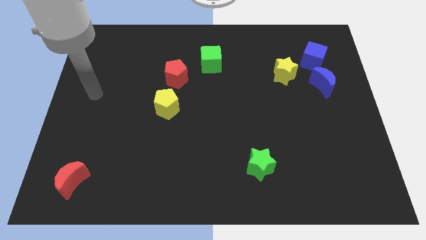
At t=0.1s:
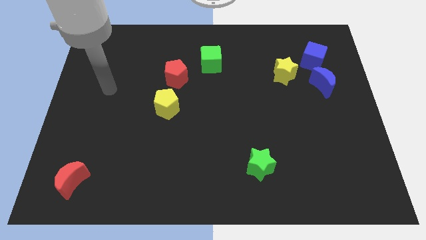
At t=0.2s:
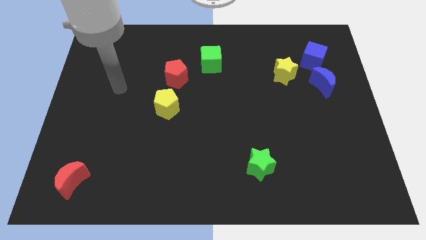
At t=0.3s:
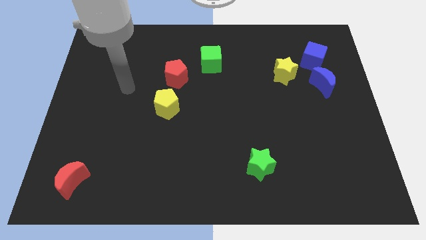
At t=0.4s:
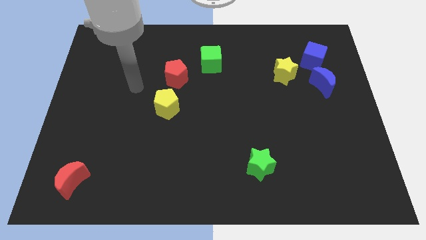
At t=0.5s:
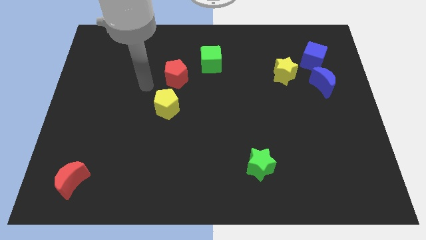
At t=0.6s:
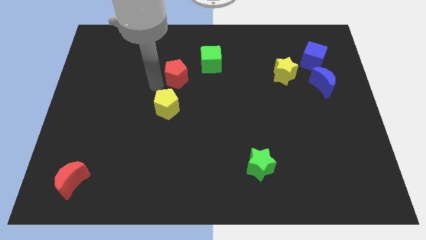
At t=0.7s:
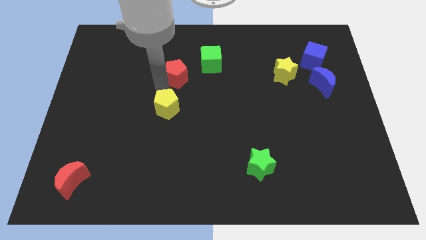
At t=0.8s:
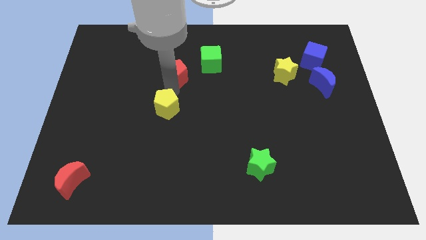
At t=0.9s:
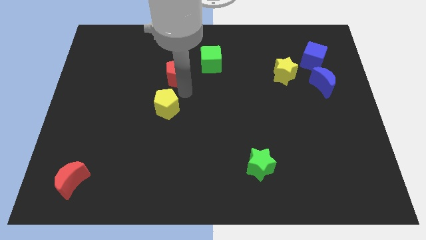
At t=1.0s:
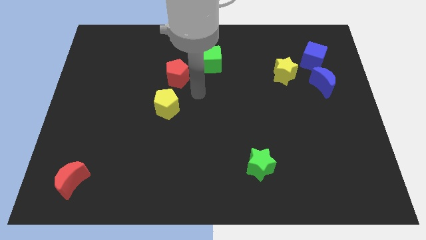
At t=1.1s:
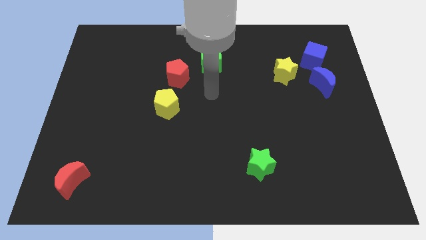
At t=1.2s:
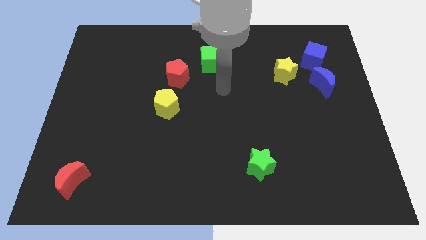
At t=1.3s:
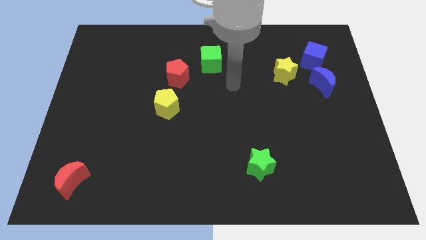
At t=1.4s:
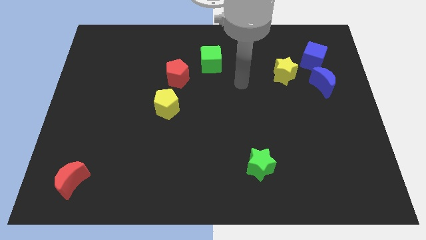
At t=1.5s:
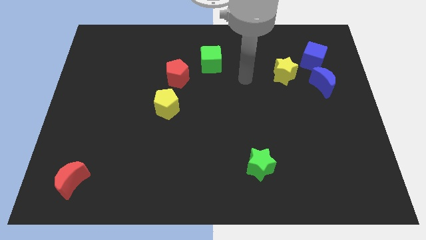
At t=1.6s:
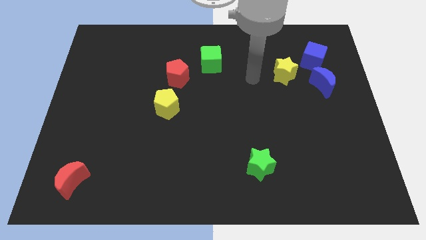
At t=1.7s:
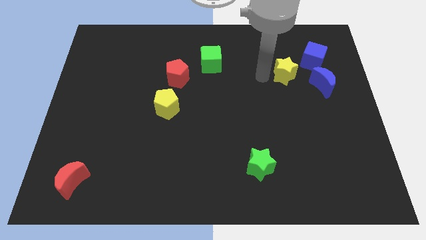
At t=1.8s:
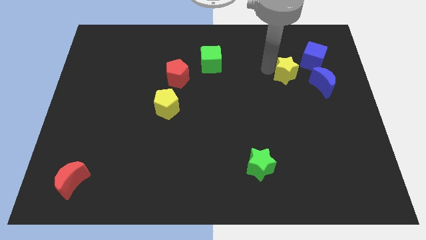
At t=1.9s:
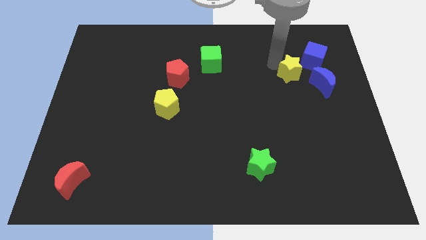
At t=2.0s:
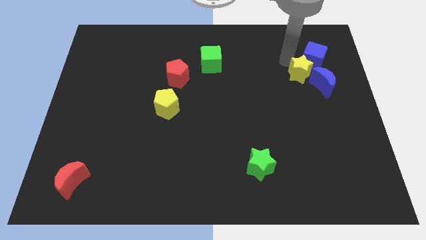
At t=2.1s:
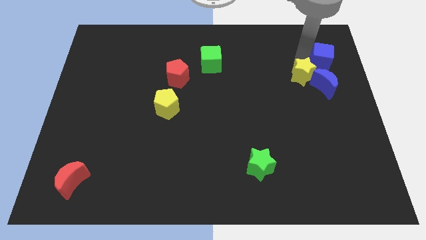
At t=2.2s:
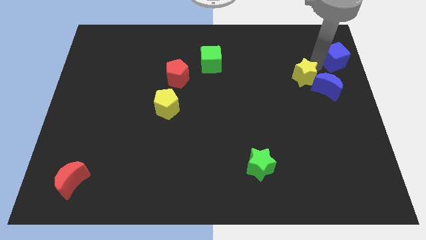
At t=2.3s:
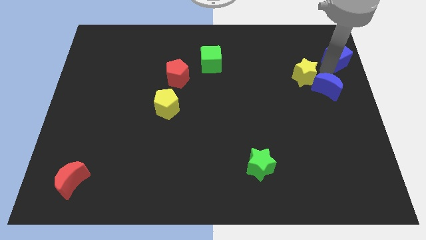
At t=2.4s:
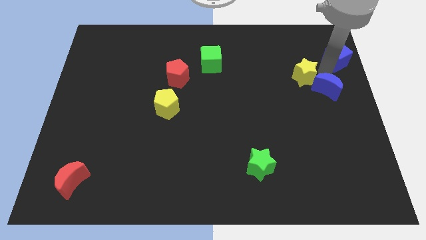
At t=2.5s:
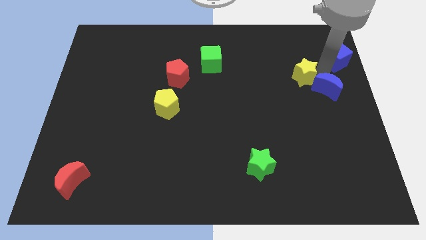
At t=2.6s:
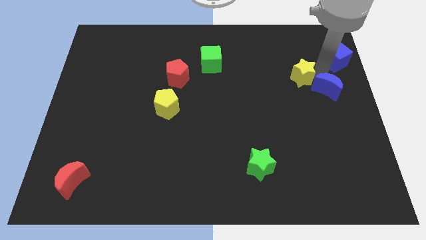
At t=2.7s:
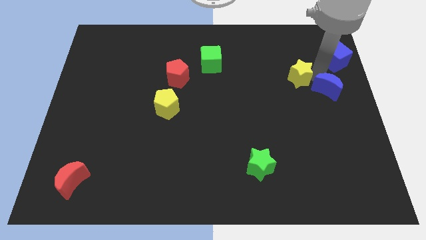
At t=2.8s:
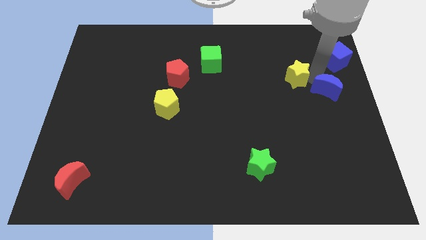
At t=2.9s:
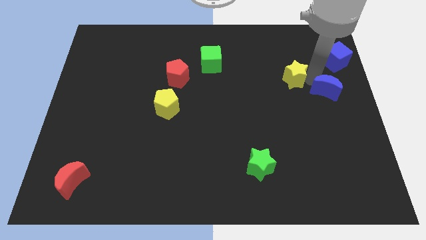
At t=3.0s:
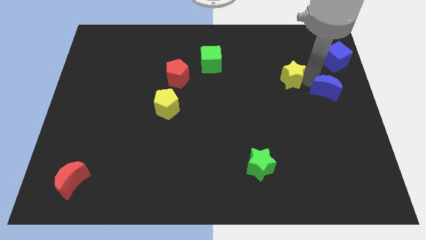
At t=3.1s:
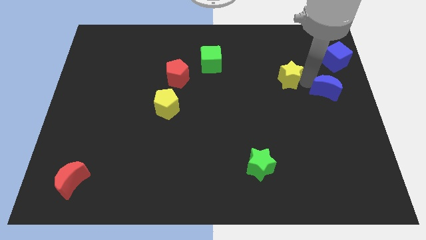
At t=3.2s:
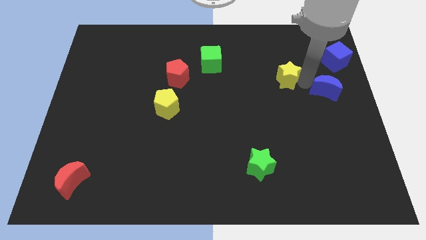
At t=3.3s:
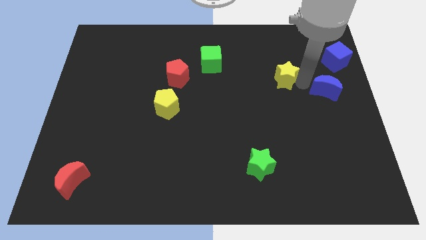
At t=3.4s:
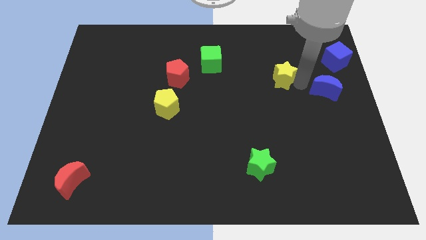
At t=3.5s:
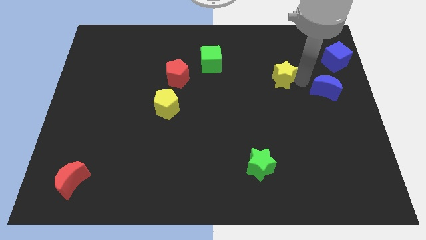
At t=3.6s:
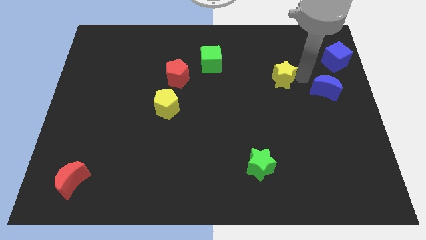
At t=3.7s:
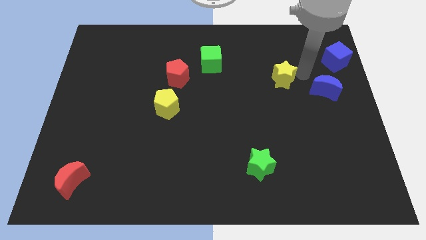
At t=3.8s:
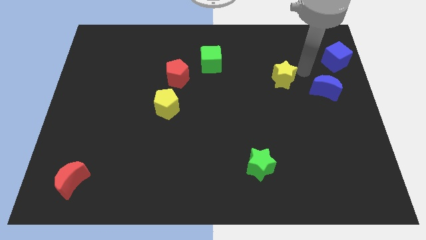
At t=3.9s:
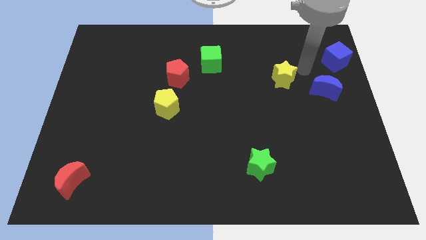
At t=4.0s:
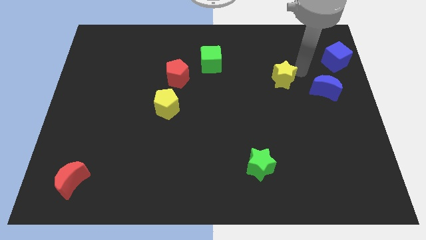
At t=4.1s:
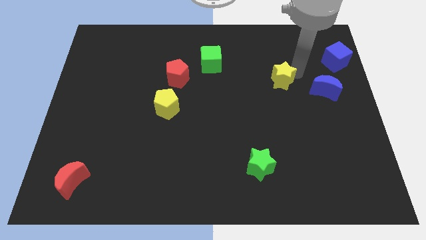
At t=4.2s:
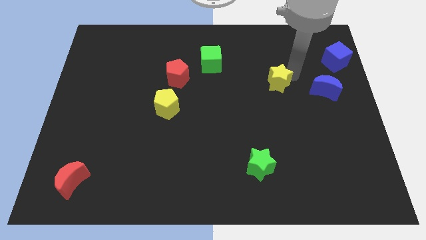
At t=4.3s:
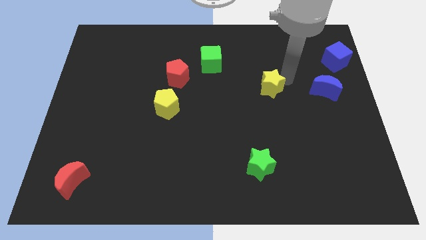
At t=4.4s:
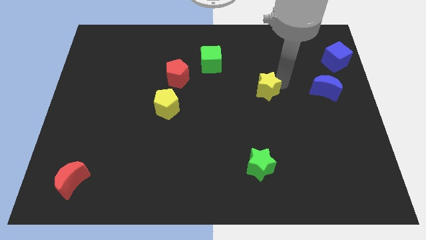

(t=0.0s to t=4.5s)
slightly push the yellow star downwards and left

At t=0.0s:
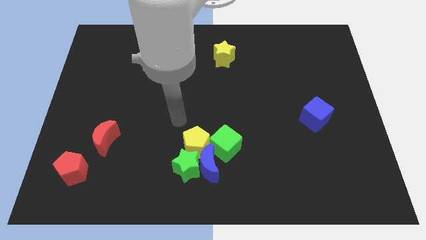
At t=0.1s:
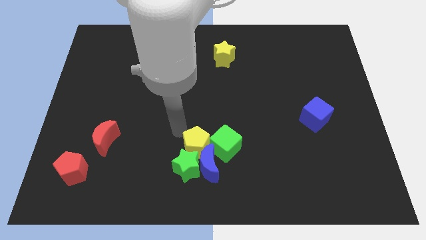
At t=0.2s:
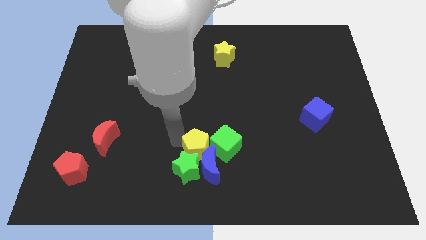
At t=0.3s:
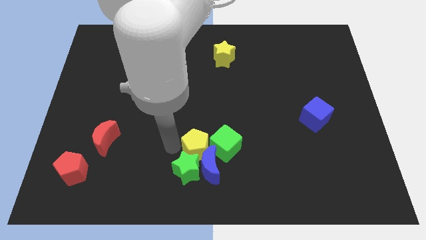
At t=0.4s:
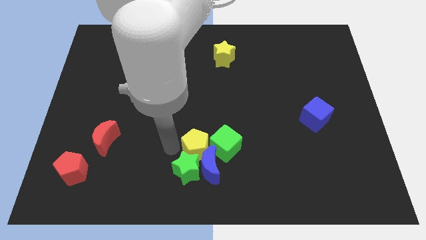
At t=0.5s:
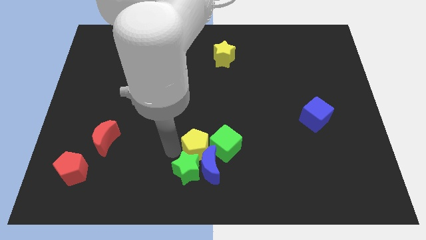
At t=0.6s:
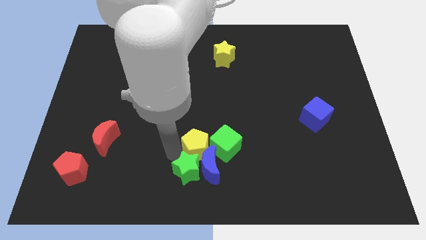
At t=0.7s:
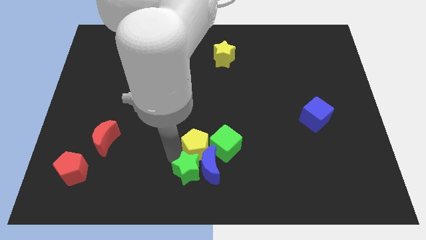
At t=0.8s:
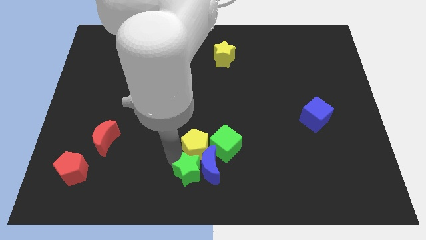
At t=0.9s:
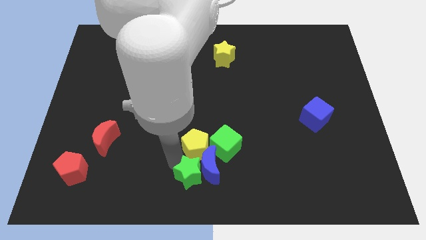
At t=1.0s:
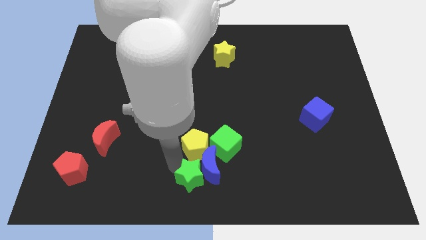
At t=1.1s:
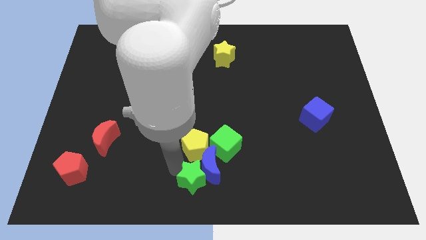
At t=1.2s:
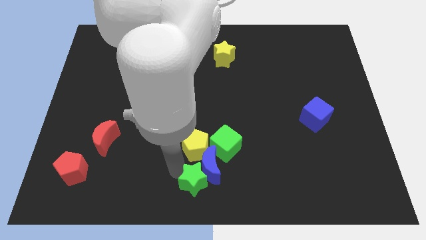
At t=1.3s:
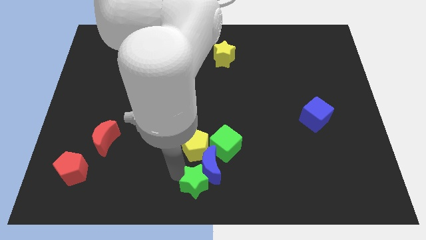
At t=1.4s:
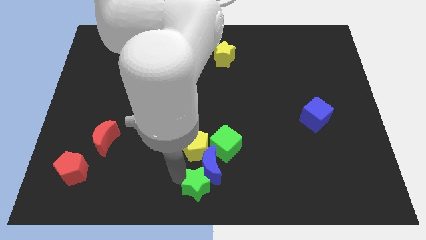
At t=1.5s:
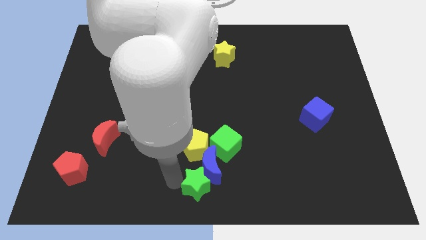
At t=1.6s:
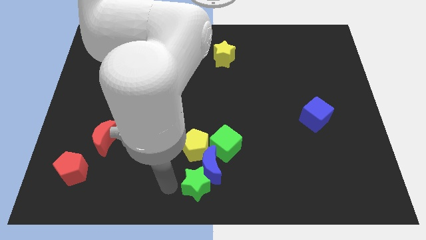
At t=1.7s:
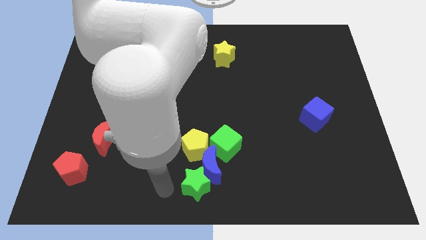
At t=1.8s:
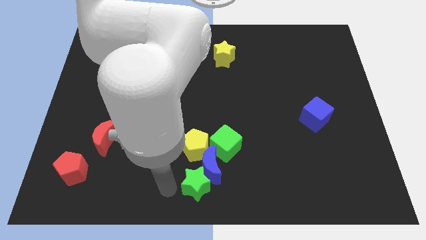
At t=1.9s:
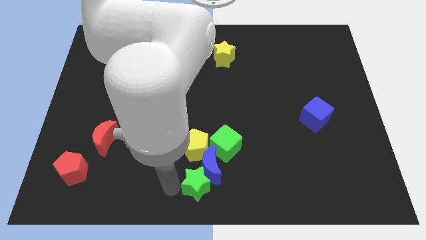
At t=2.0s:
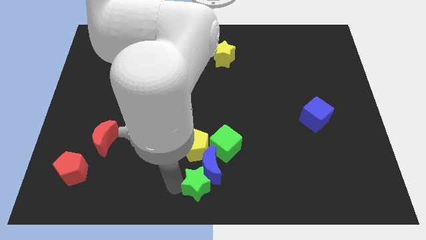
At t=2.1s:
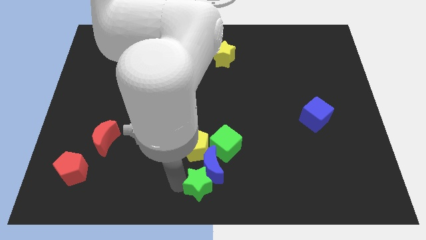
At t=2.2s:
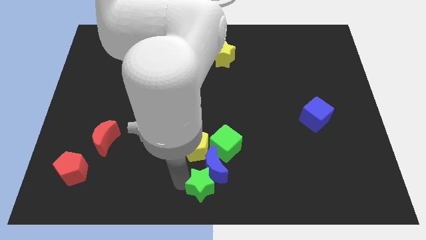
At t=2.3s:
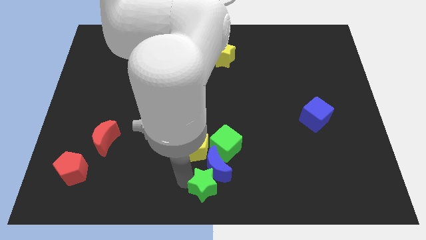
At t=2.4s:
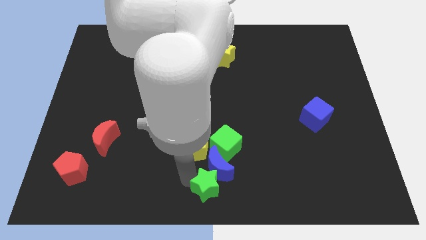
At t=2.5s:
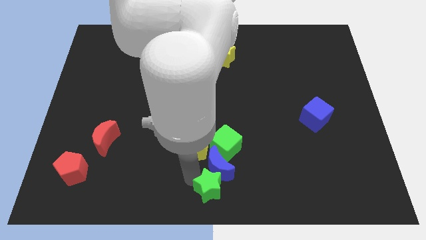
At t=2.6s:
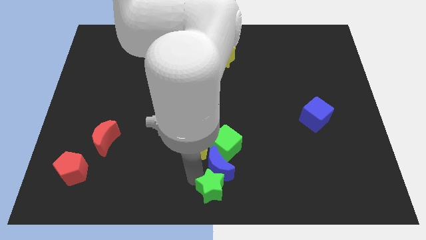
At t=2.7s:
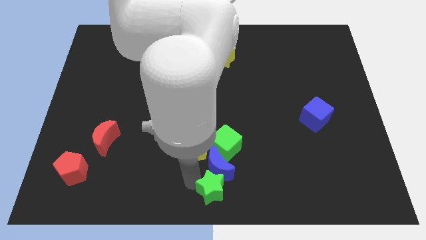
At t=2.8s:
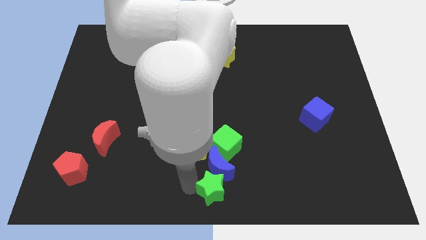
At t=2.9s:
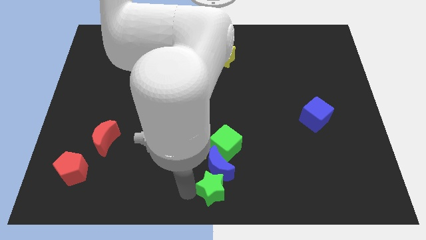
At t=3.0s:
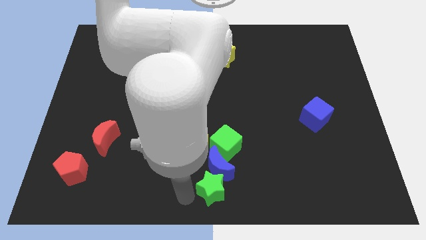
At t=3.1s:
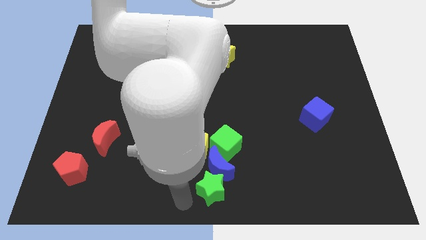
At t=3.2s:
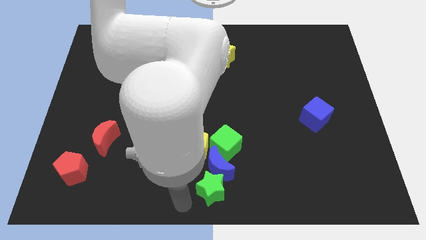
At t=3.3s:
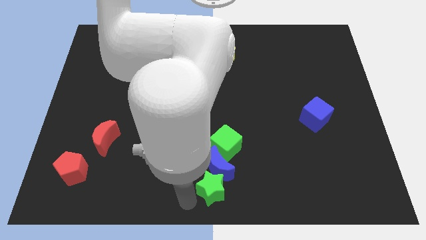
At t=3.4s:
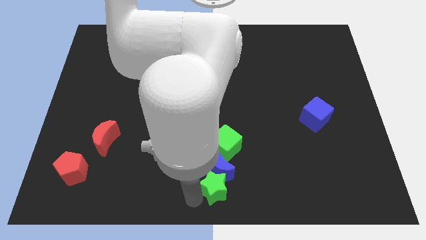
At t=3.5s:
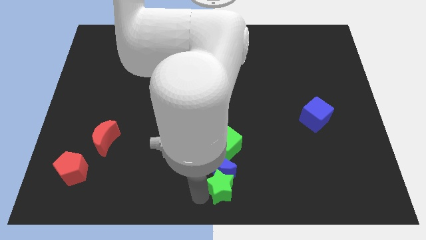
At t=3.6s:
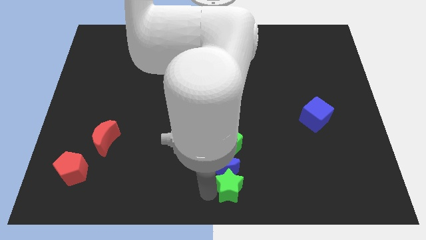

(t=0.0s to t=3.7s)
slide the green star slightly right
